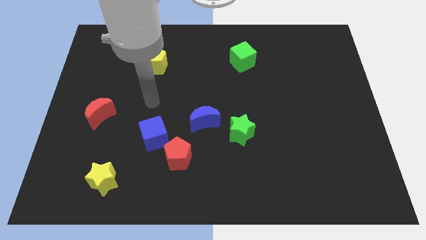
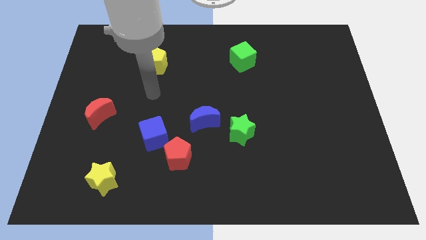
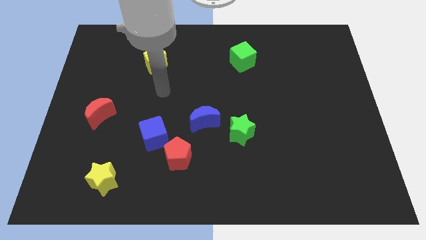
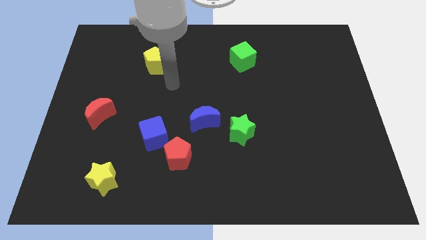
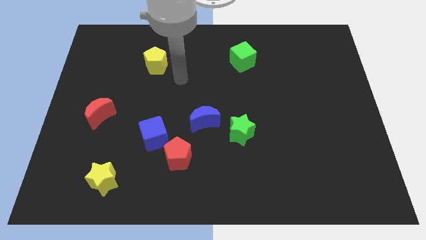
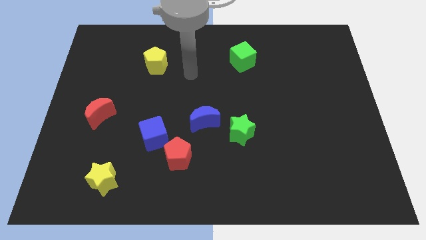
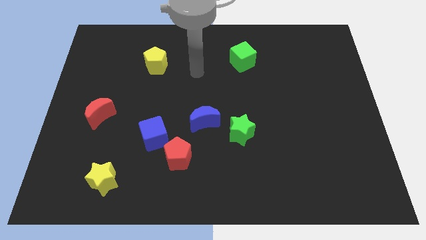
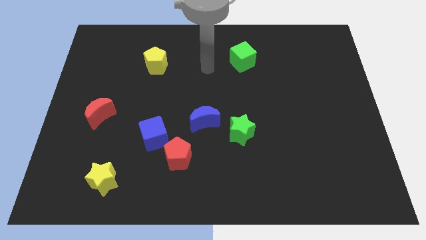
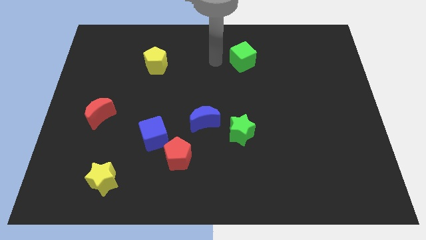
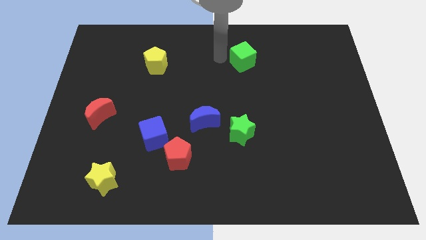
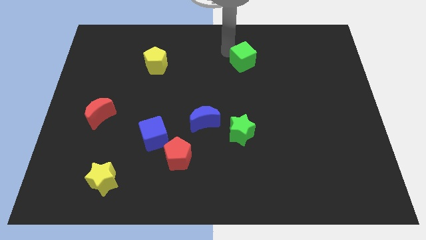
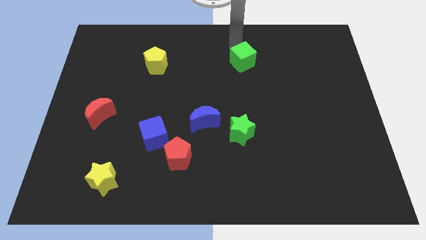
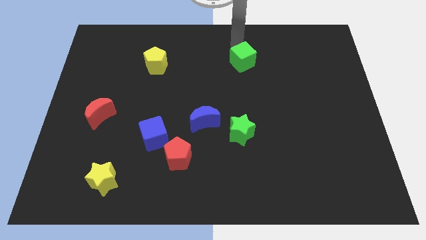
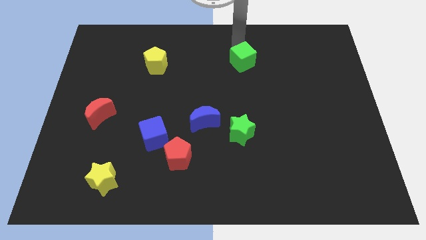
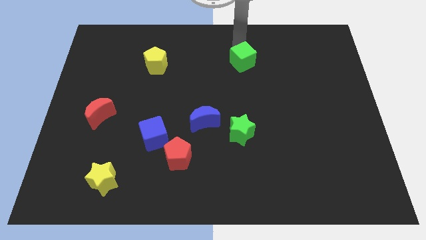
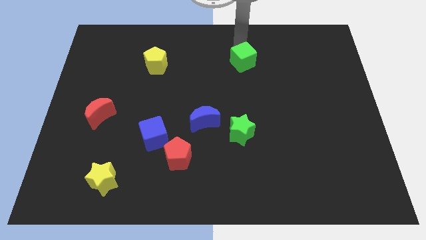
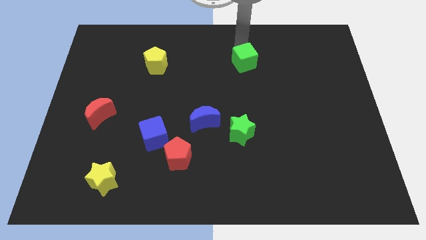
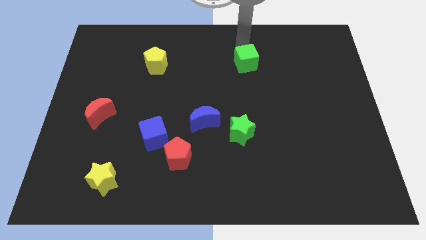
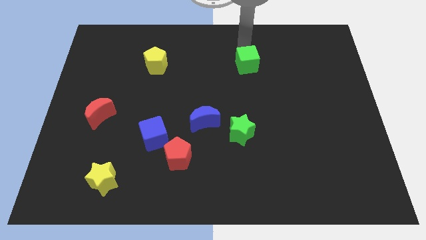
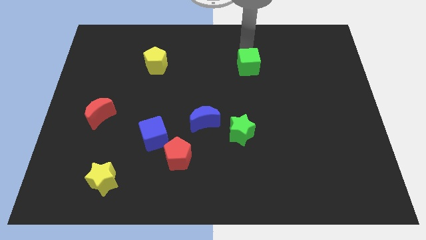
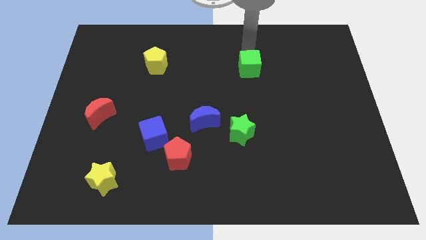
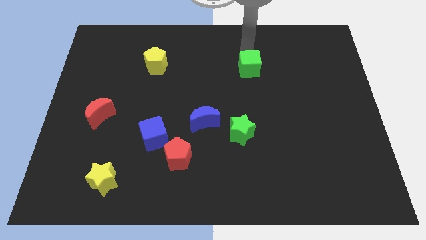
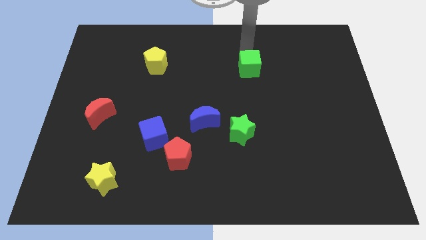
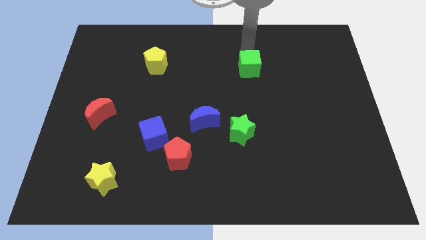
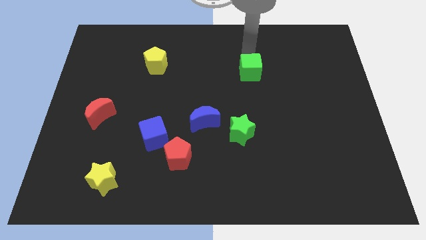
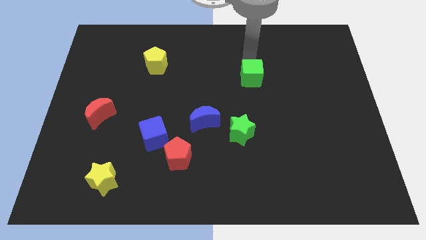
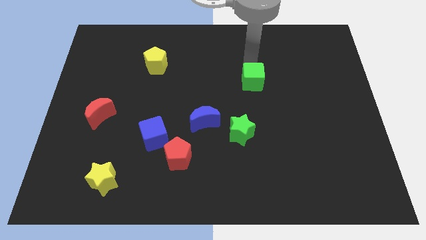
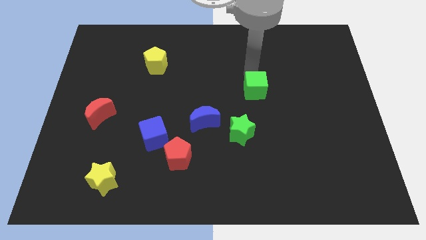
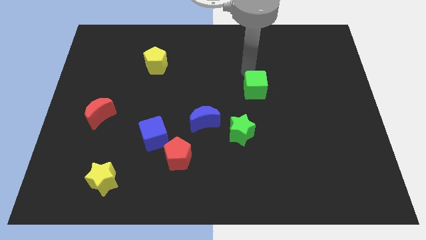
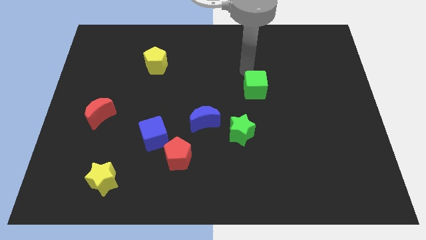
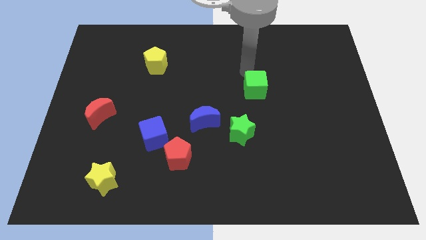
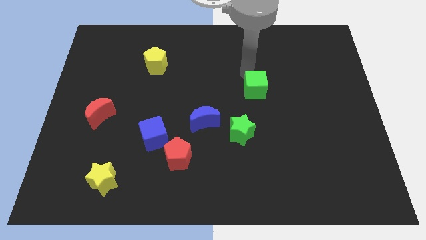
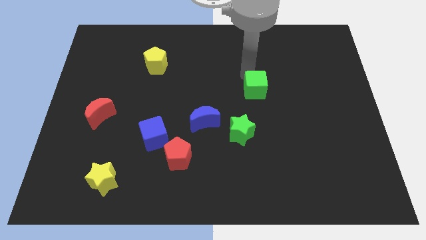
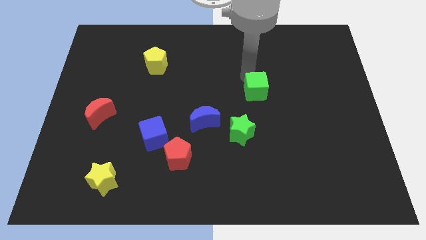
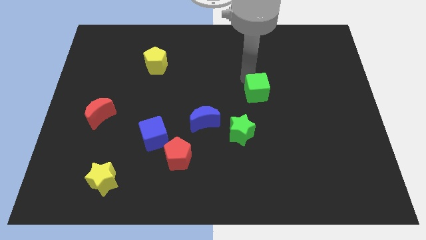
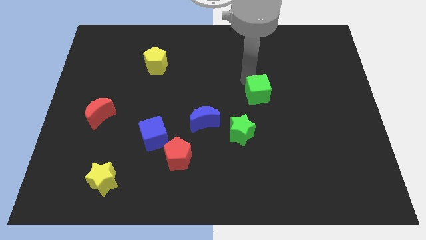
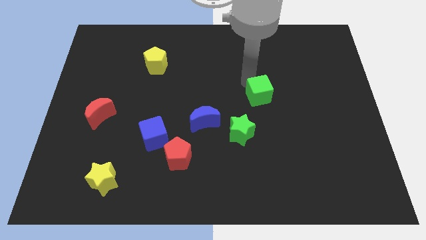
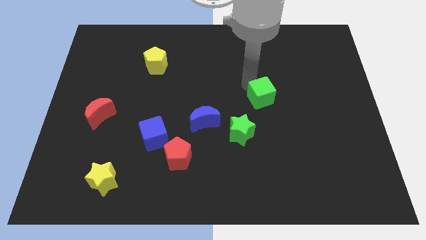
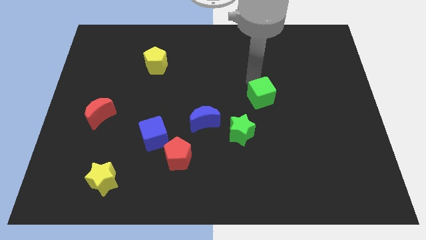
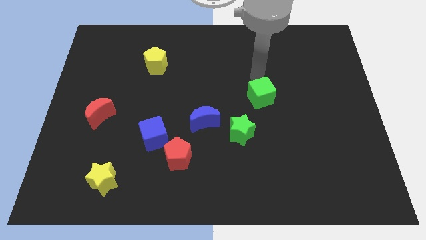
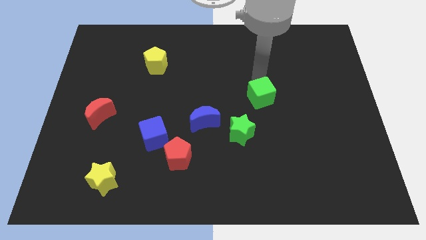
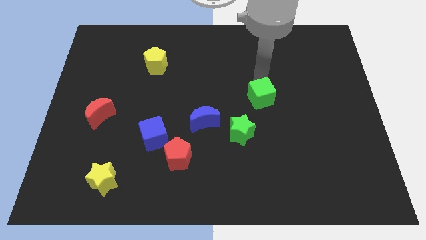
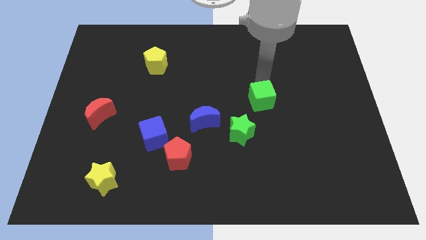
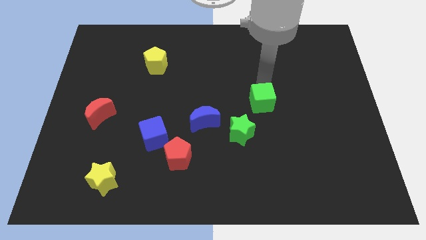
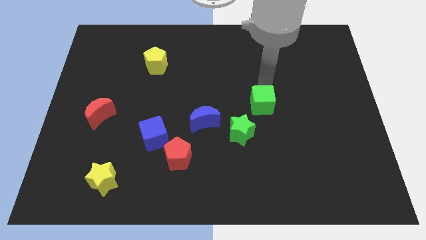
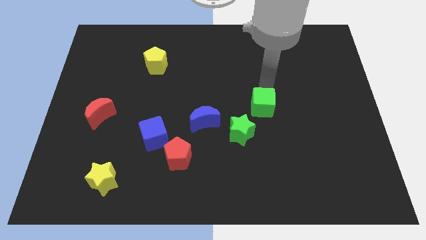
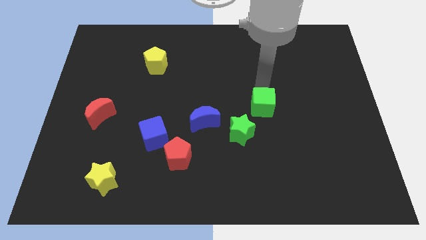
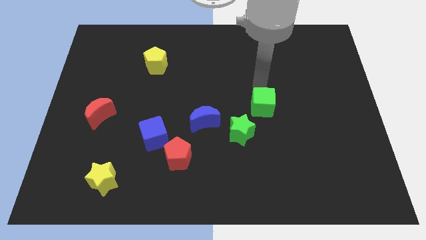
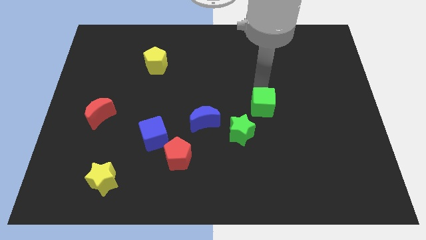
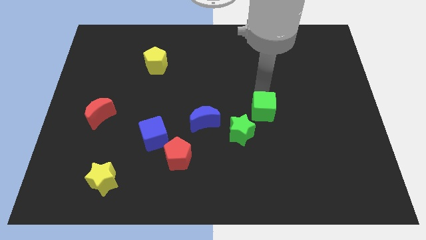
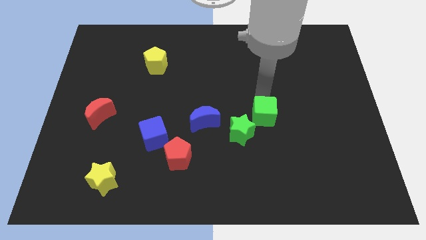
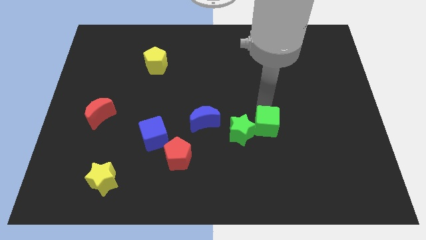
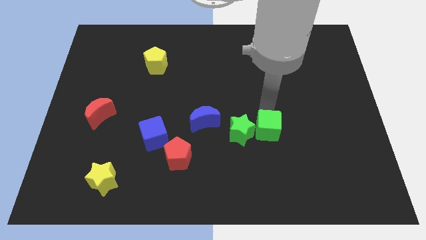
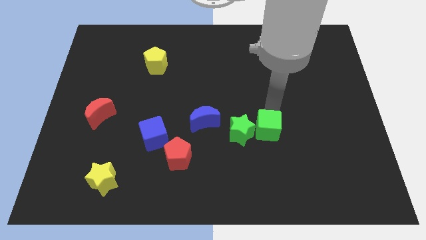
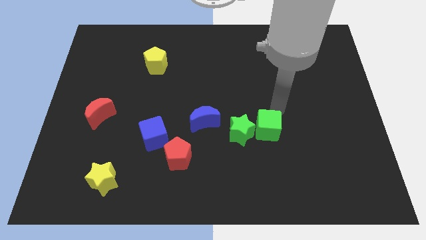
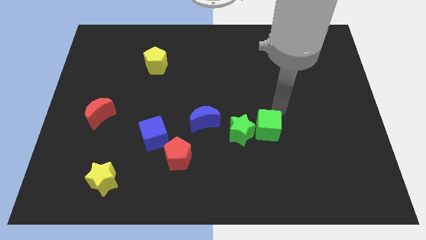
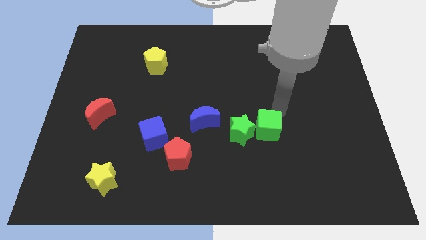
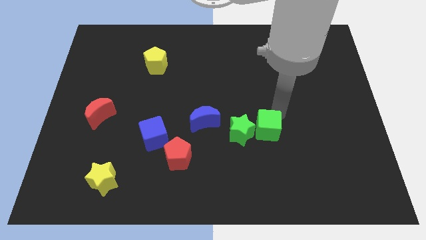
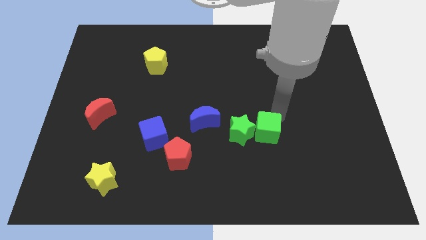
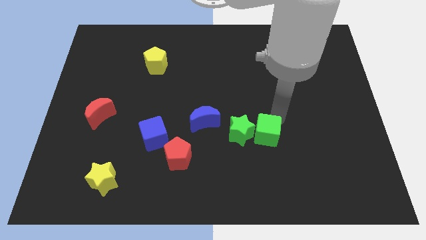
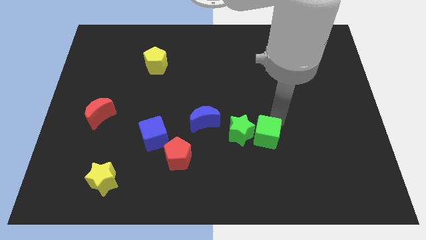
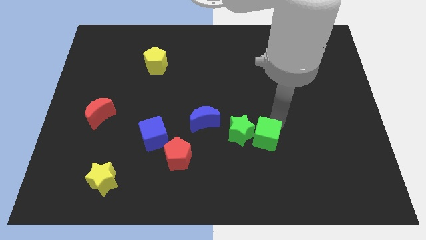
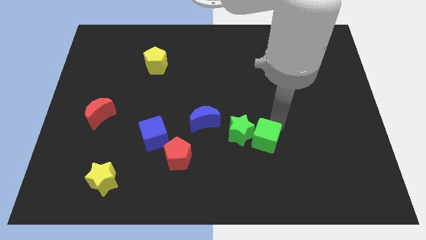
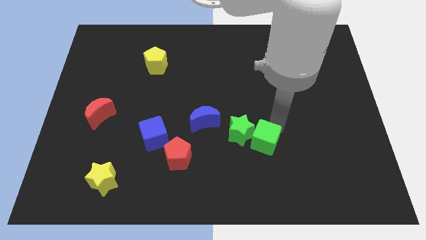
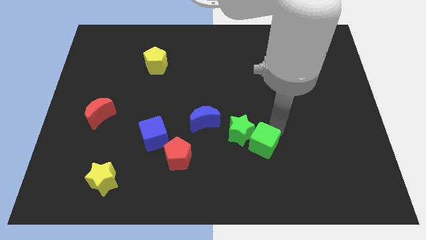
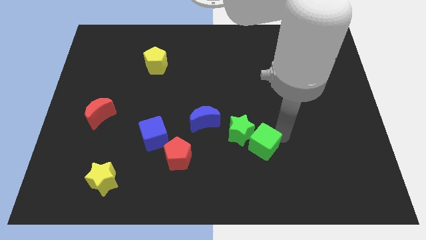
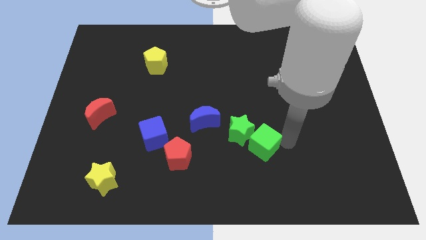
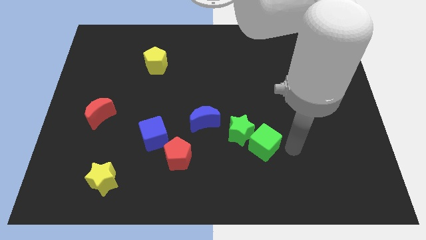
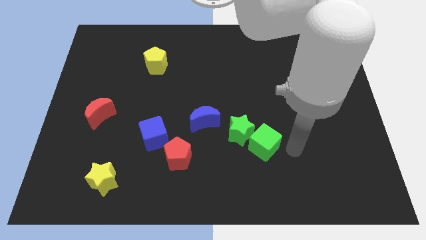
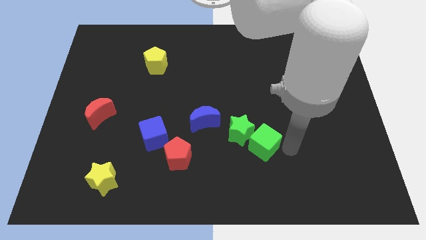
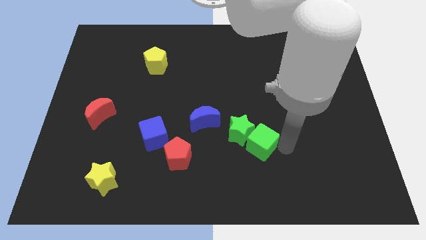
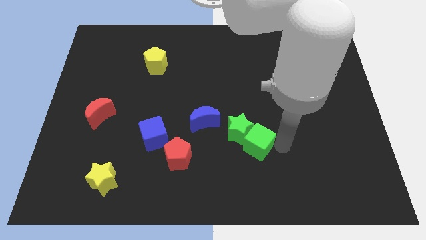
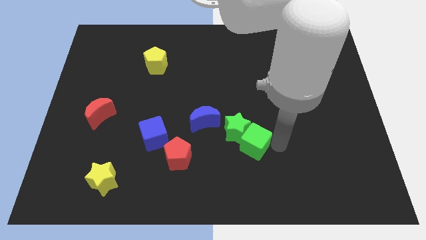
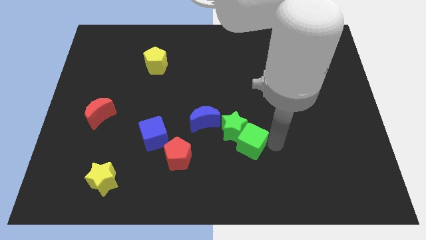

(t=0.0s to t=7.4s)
move the green cube to the bottom right of the blue moon
